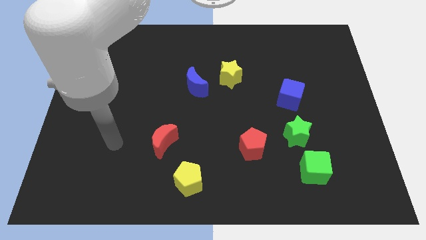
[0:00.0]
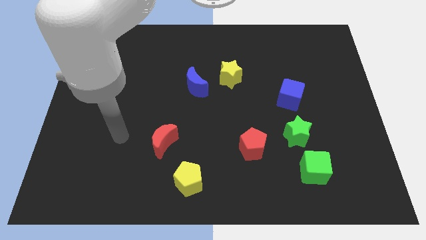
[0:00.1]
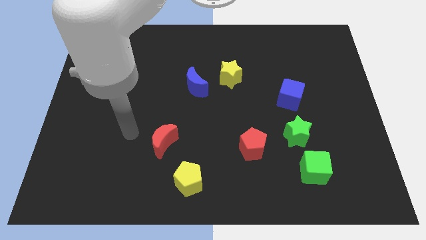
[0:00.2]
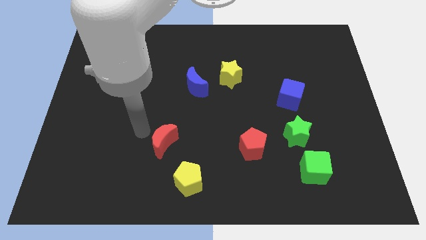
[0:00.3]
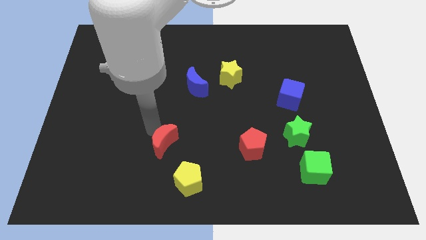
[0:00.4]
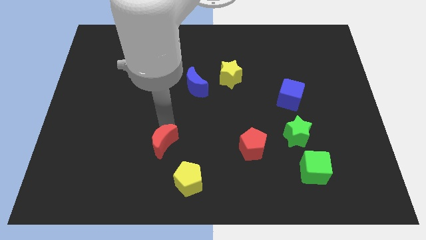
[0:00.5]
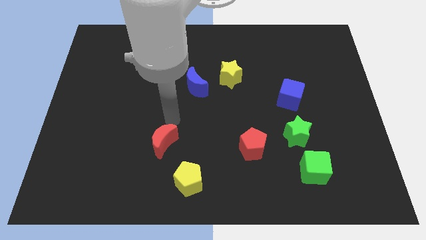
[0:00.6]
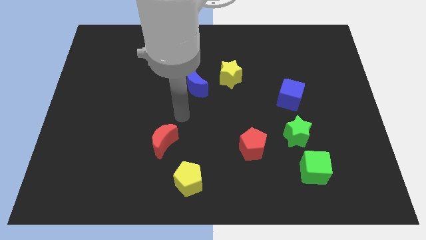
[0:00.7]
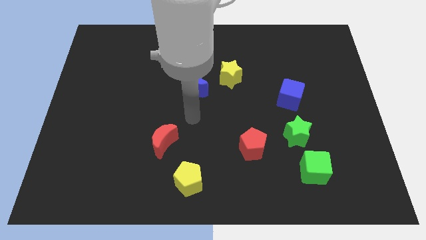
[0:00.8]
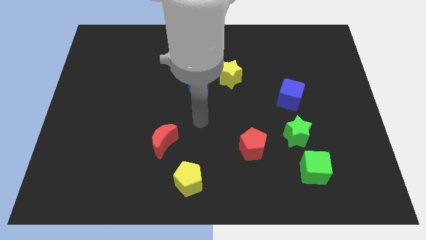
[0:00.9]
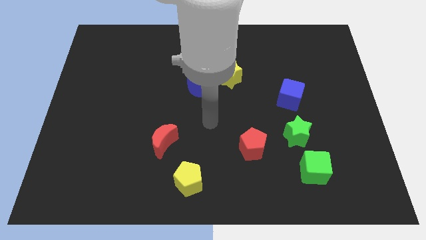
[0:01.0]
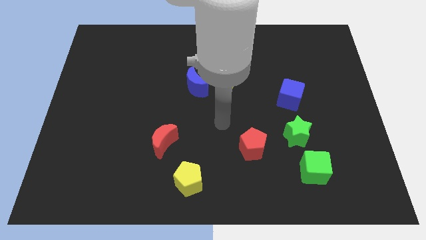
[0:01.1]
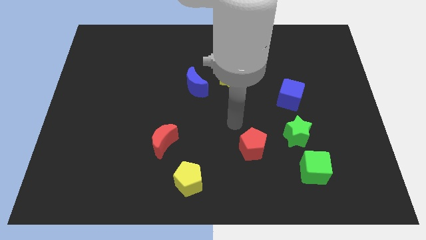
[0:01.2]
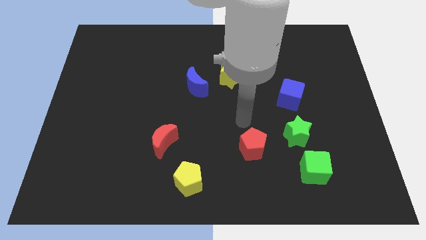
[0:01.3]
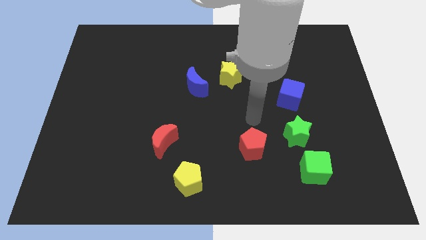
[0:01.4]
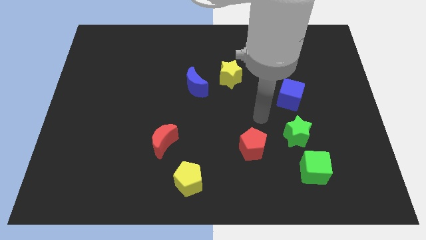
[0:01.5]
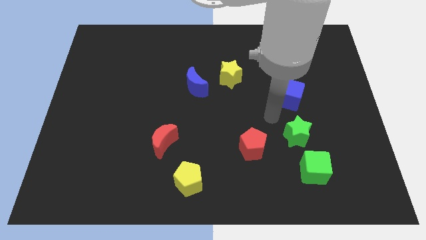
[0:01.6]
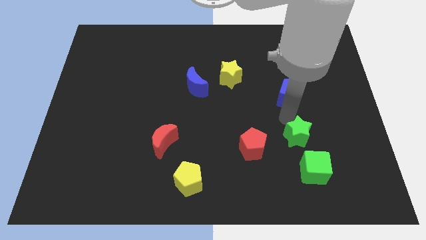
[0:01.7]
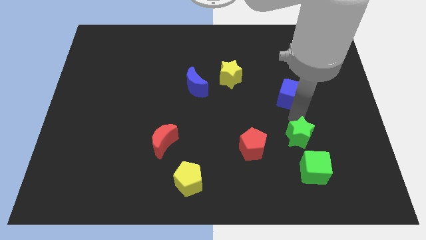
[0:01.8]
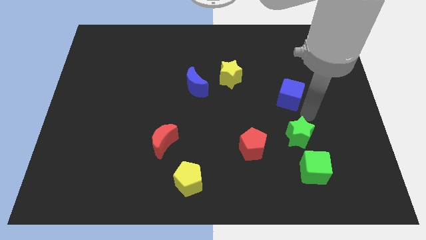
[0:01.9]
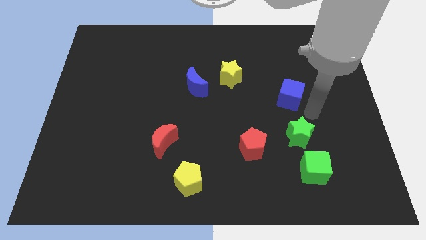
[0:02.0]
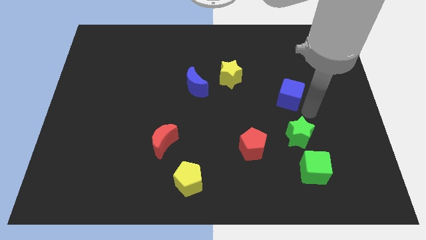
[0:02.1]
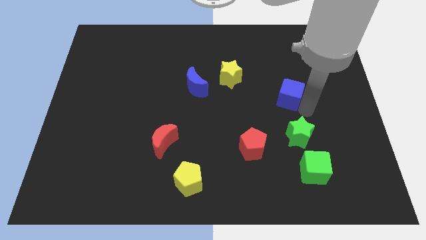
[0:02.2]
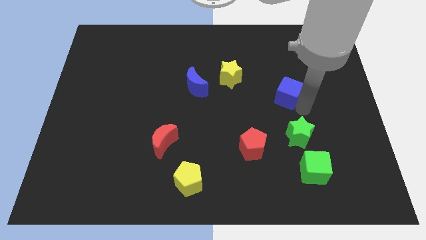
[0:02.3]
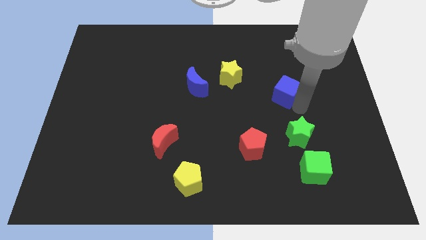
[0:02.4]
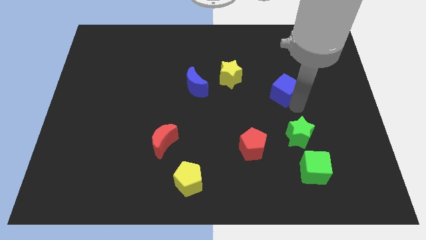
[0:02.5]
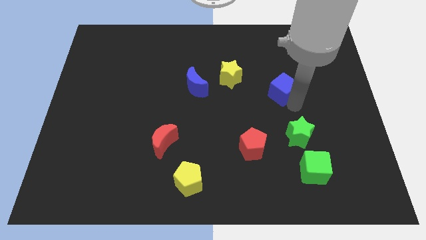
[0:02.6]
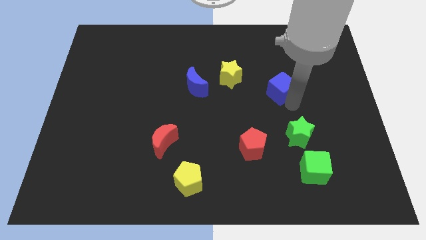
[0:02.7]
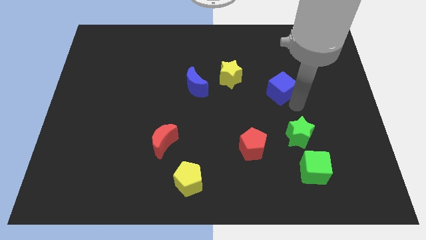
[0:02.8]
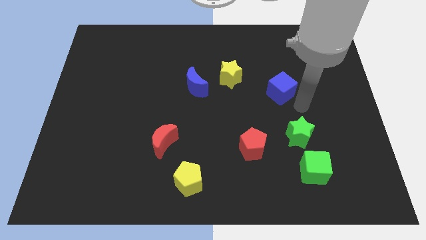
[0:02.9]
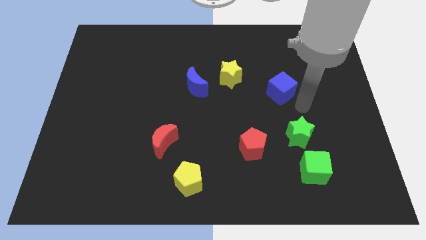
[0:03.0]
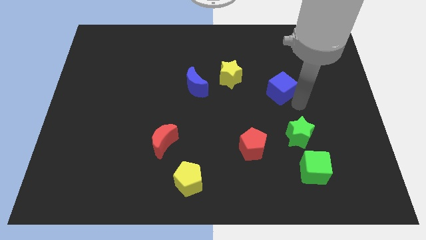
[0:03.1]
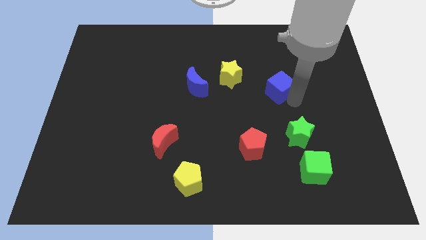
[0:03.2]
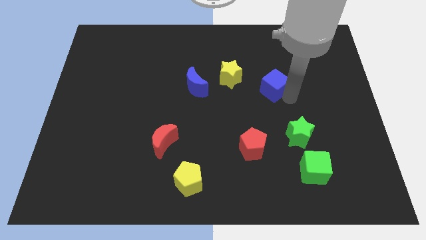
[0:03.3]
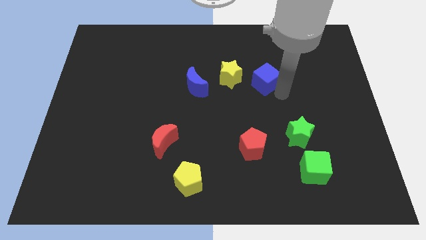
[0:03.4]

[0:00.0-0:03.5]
slightly push the blue cube upwards and then to the left

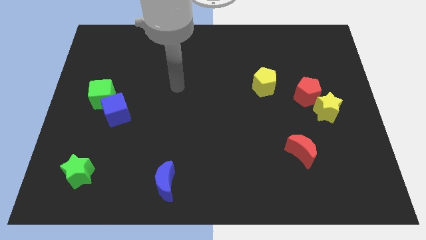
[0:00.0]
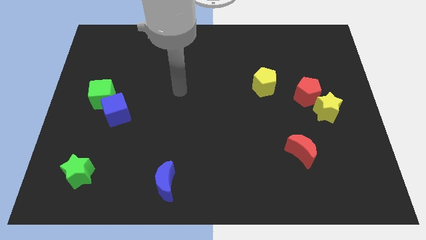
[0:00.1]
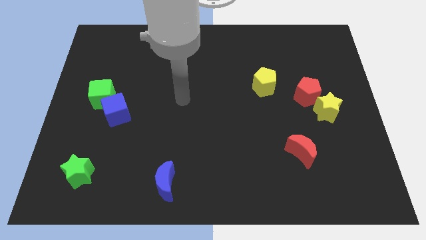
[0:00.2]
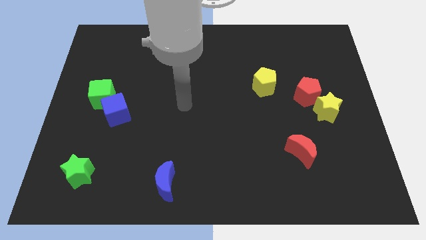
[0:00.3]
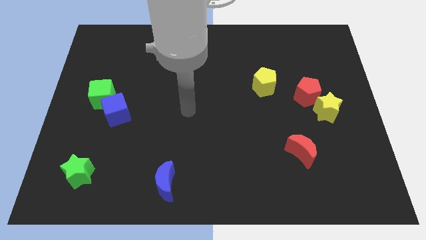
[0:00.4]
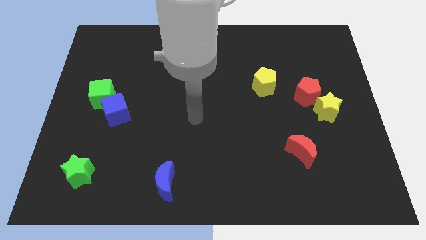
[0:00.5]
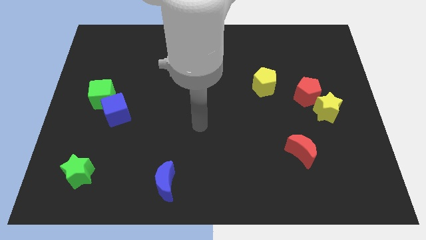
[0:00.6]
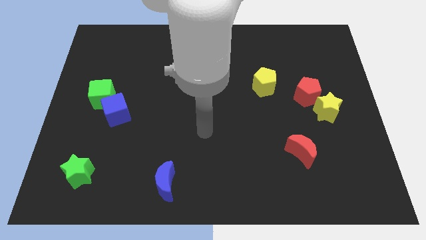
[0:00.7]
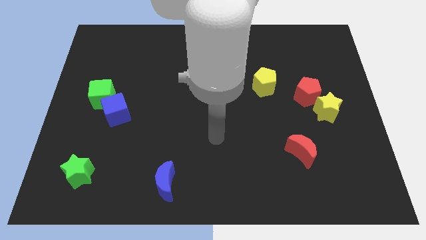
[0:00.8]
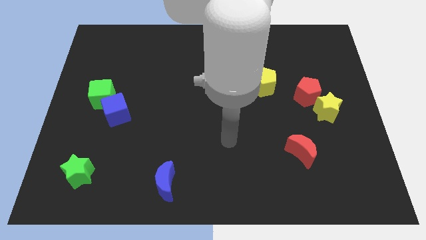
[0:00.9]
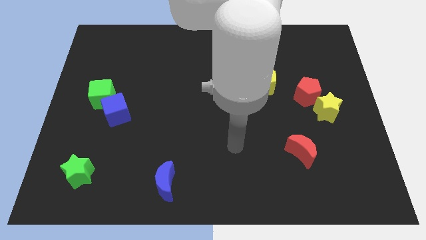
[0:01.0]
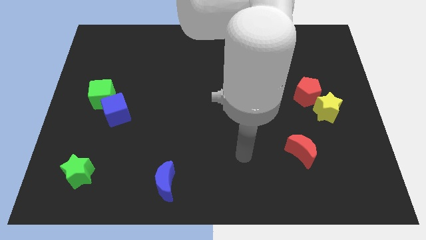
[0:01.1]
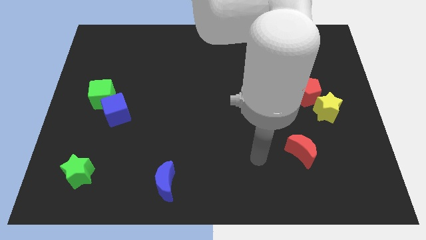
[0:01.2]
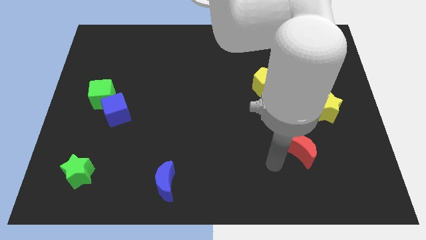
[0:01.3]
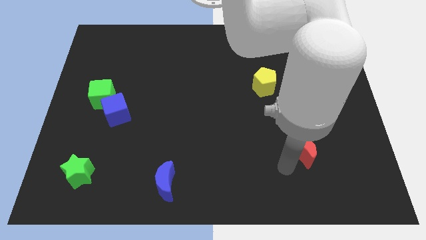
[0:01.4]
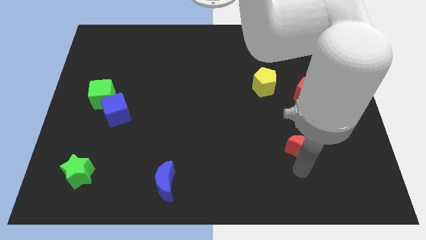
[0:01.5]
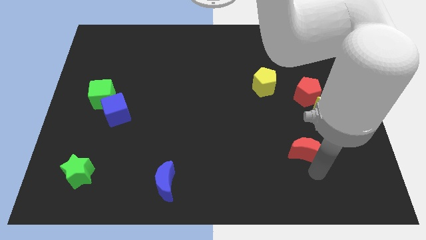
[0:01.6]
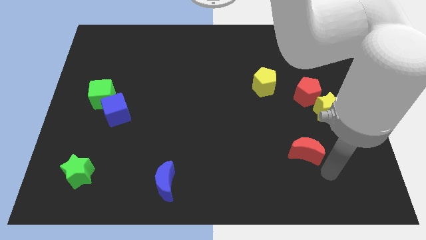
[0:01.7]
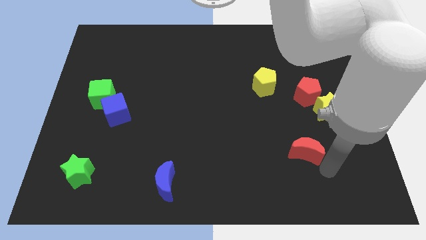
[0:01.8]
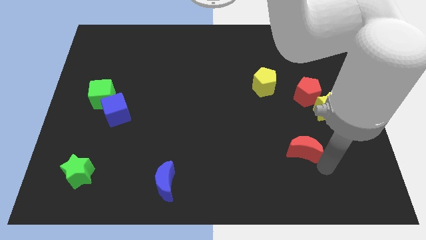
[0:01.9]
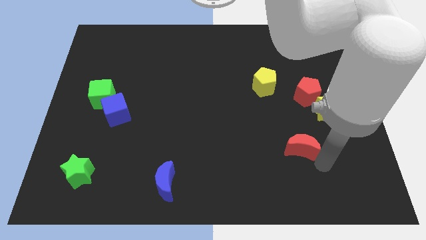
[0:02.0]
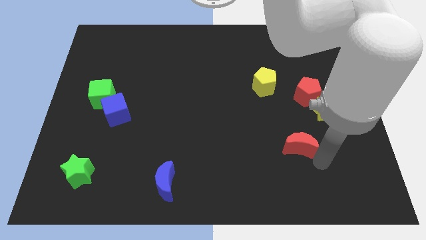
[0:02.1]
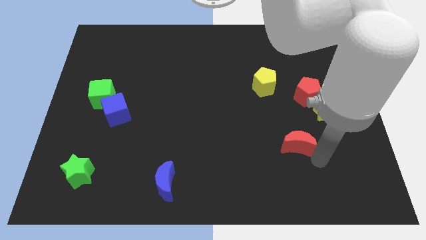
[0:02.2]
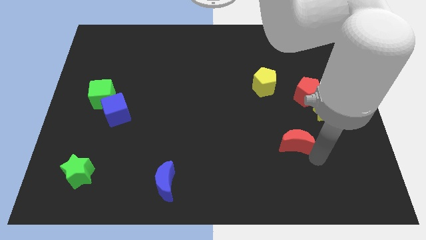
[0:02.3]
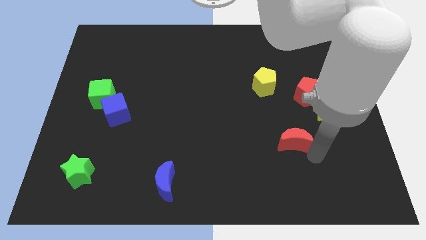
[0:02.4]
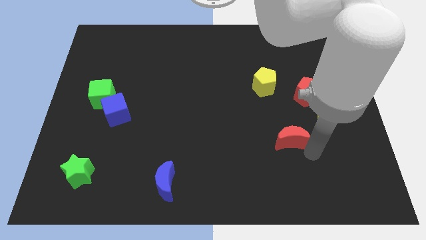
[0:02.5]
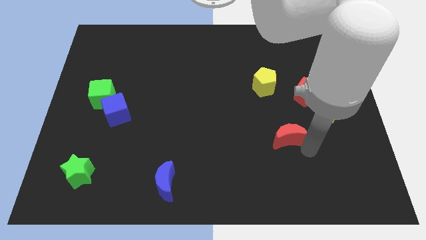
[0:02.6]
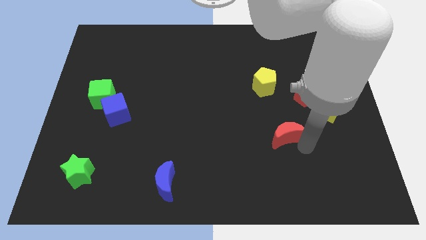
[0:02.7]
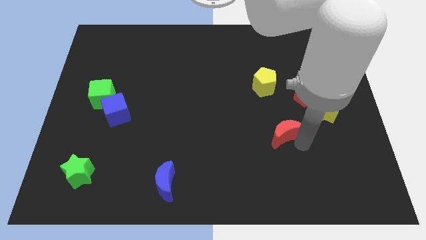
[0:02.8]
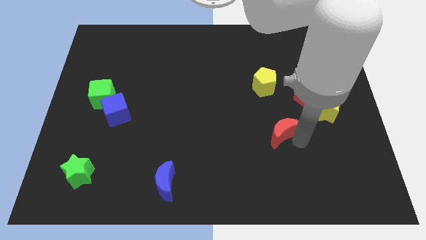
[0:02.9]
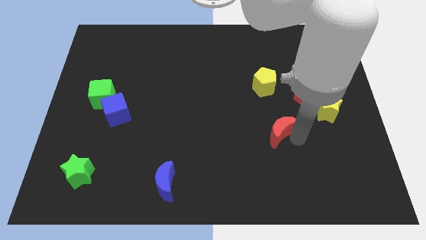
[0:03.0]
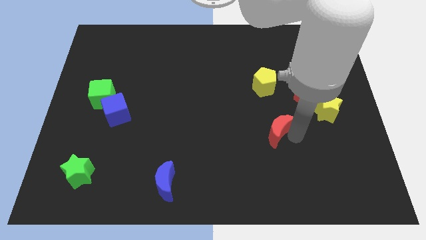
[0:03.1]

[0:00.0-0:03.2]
slide the red moon a little bit upwards and then to the left

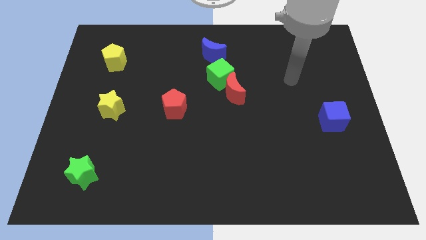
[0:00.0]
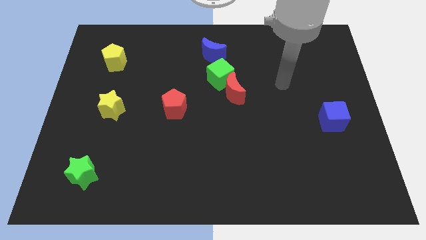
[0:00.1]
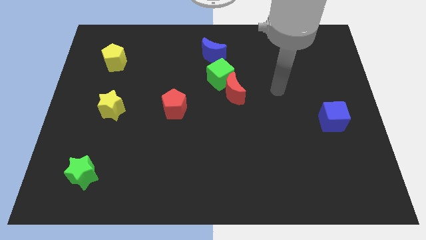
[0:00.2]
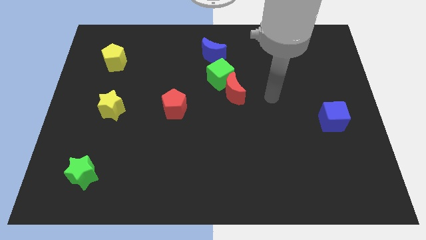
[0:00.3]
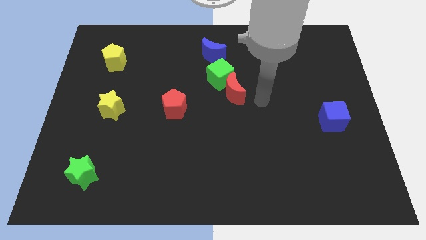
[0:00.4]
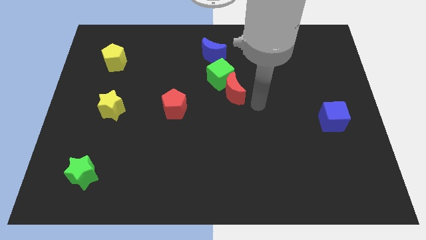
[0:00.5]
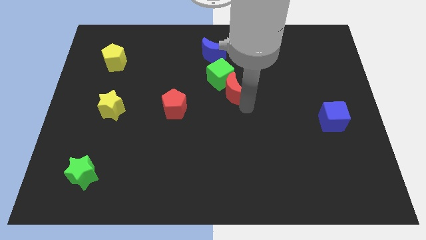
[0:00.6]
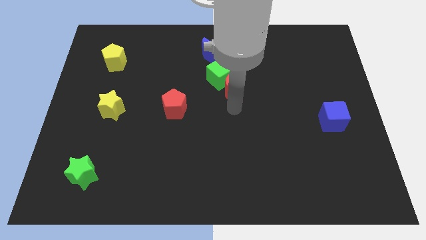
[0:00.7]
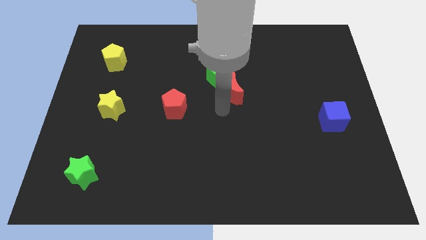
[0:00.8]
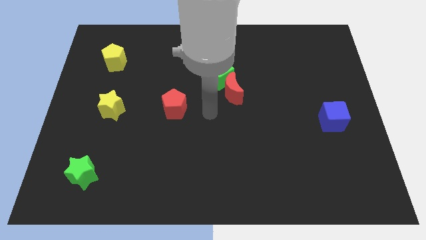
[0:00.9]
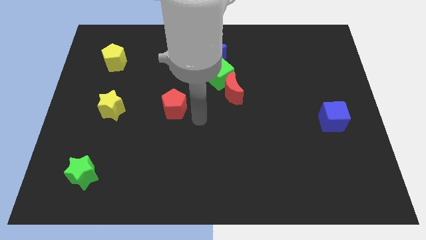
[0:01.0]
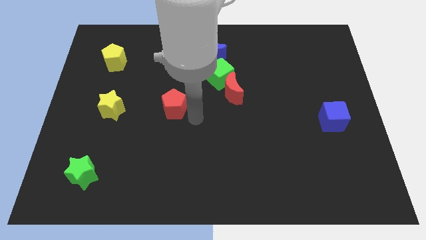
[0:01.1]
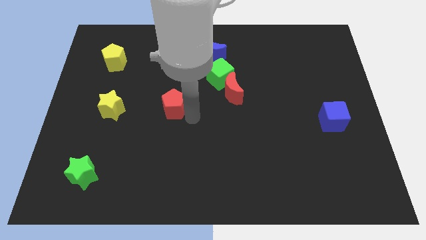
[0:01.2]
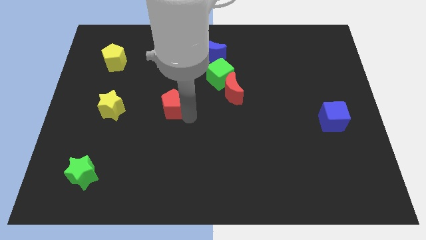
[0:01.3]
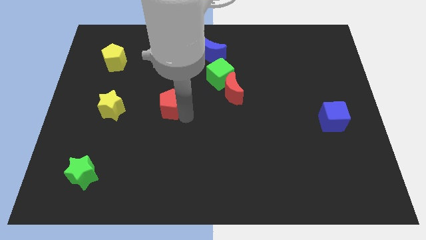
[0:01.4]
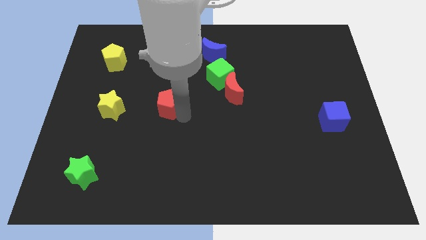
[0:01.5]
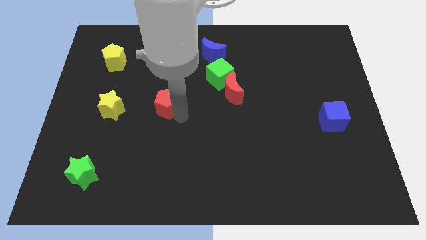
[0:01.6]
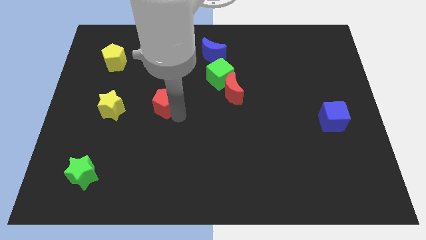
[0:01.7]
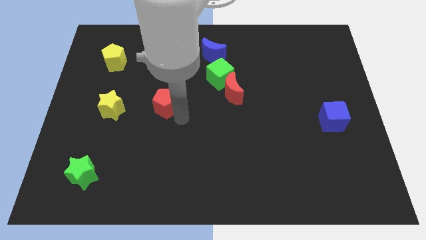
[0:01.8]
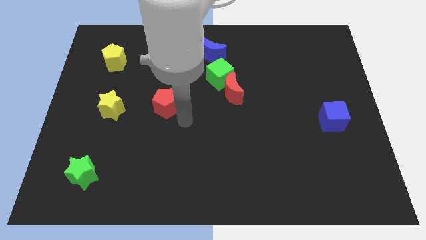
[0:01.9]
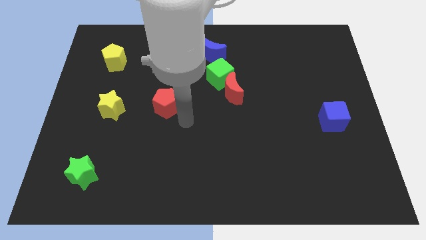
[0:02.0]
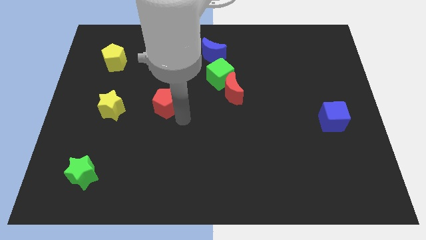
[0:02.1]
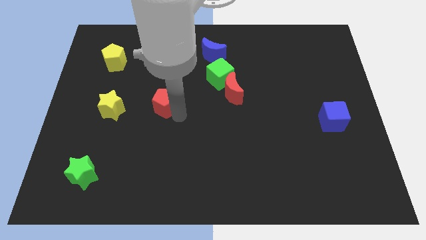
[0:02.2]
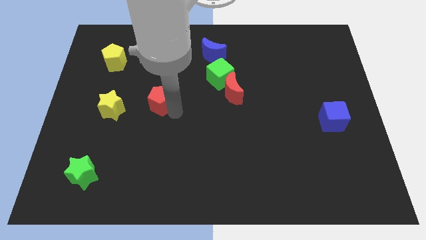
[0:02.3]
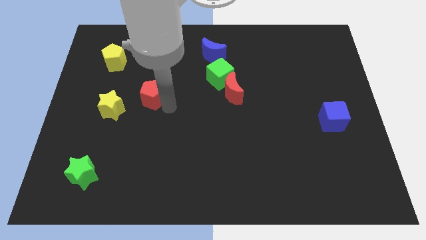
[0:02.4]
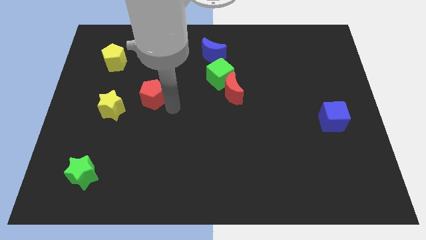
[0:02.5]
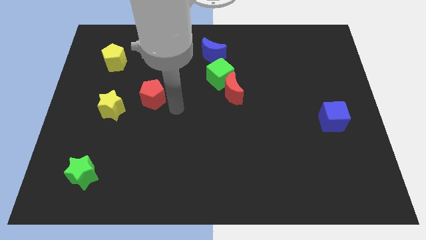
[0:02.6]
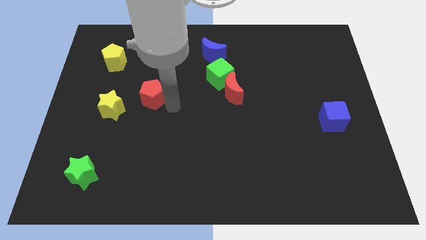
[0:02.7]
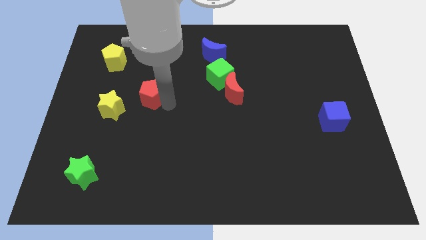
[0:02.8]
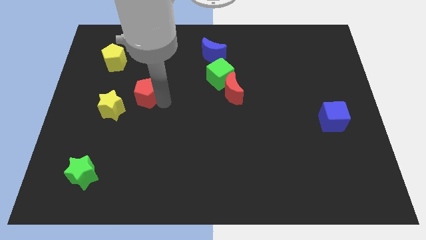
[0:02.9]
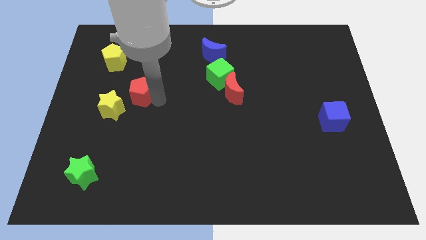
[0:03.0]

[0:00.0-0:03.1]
slide the red pentagon to the left a little bit
